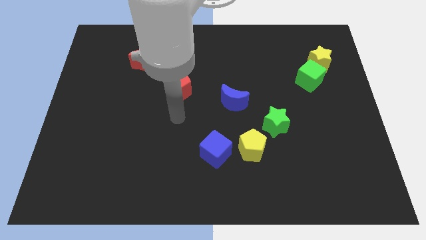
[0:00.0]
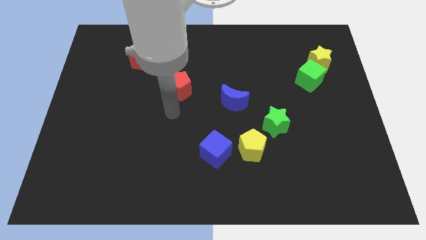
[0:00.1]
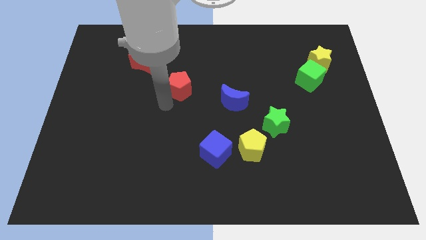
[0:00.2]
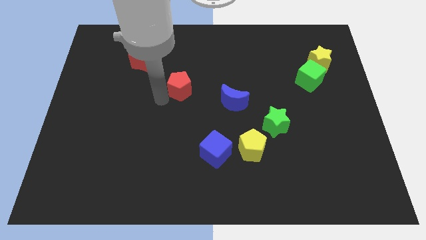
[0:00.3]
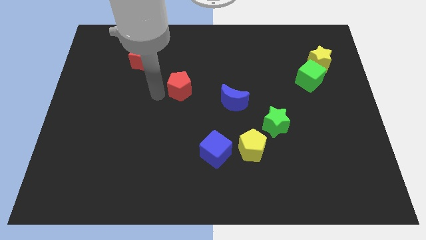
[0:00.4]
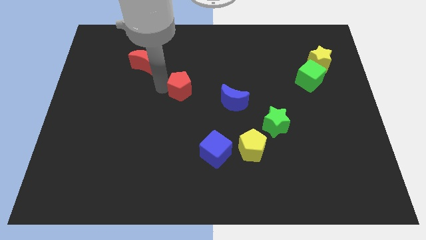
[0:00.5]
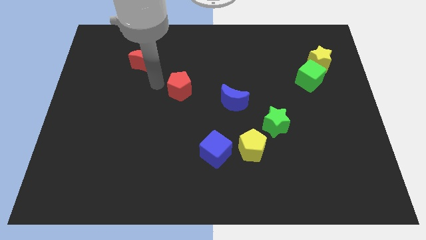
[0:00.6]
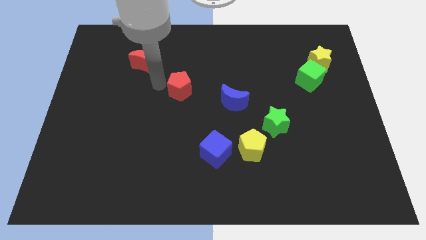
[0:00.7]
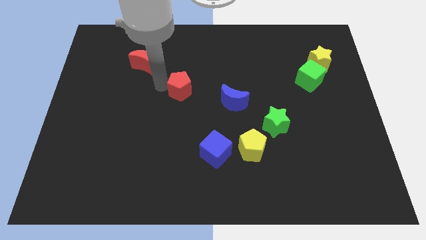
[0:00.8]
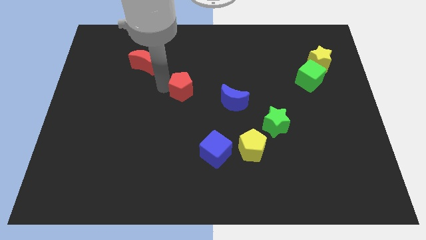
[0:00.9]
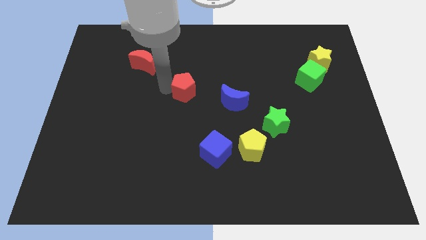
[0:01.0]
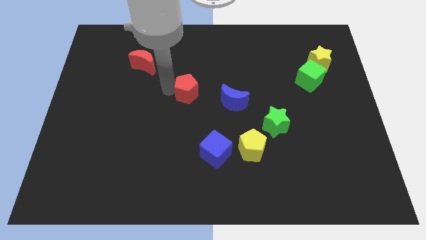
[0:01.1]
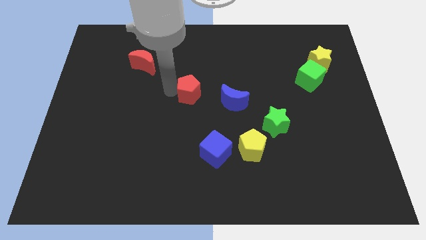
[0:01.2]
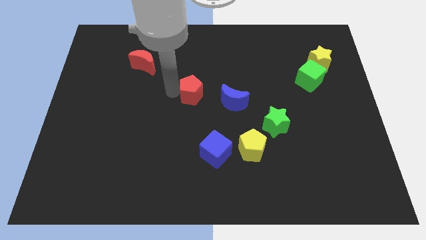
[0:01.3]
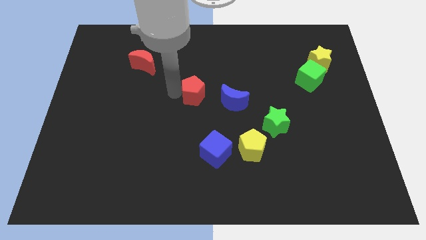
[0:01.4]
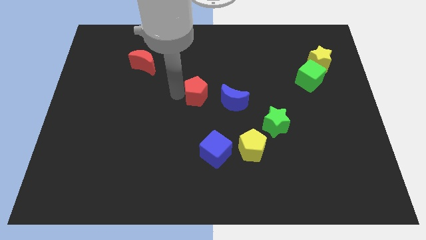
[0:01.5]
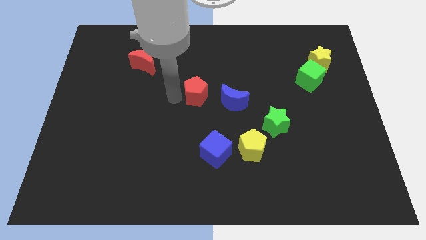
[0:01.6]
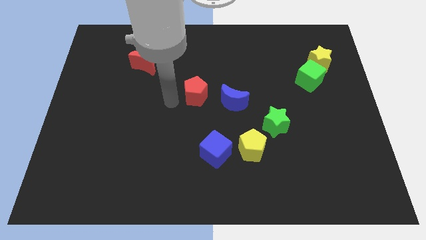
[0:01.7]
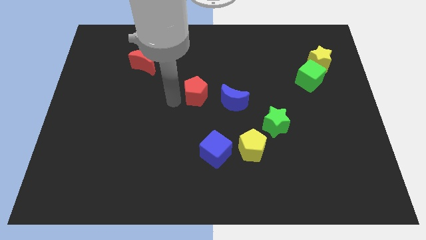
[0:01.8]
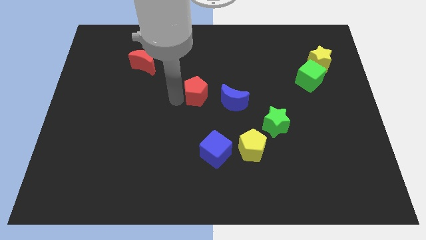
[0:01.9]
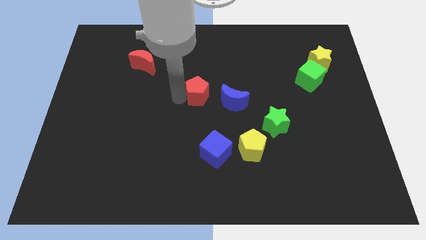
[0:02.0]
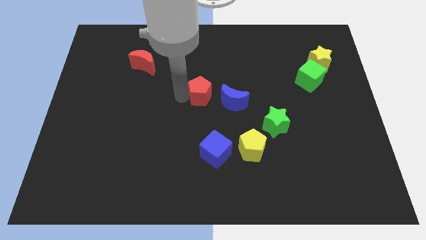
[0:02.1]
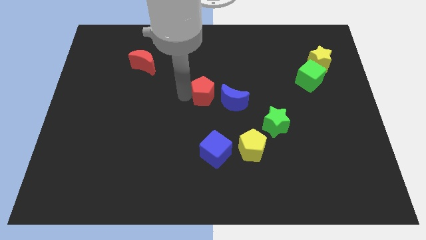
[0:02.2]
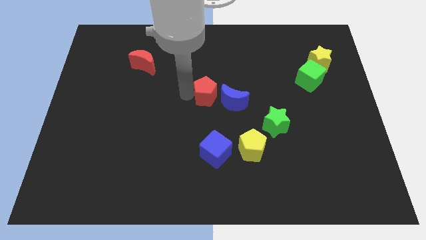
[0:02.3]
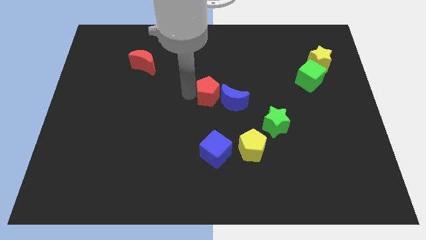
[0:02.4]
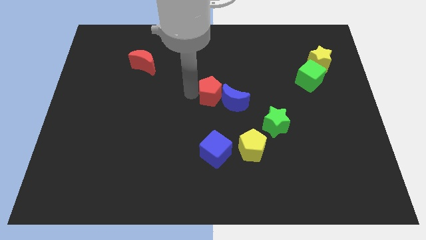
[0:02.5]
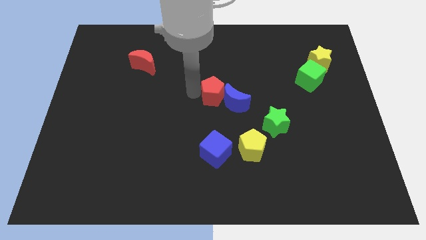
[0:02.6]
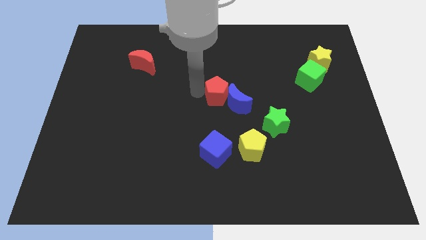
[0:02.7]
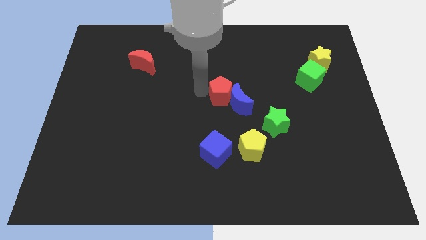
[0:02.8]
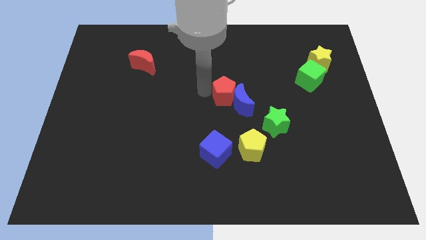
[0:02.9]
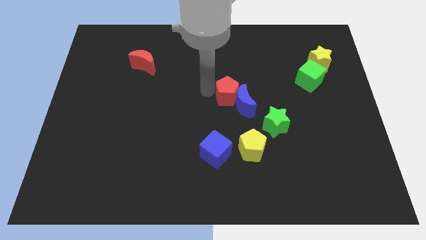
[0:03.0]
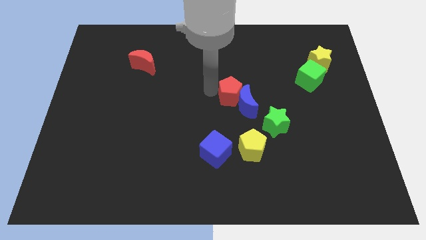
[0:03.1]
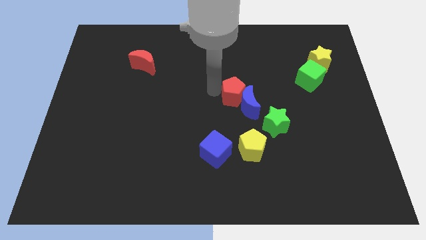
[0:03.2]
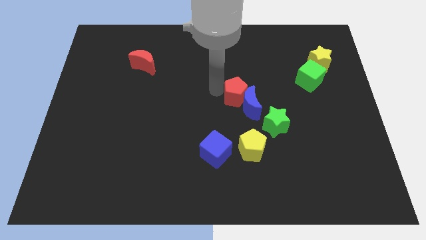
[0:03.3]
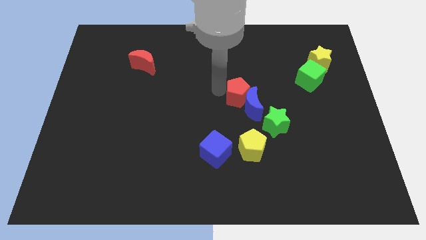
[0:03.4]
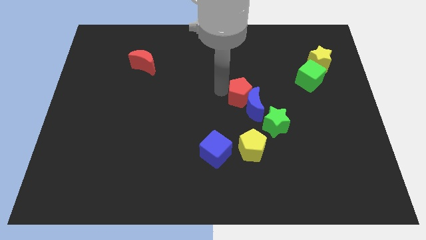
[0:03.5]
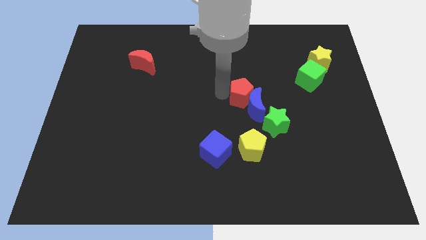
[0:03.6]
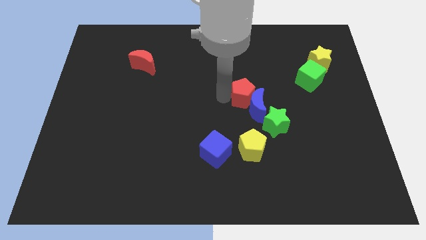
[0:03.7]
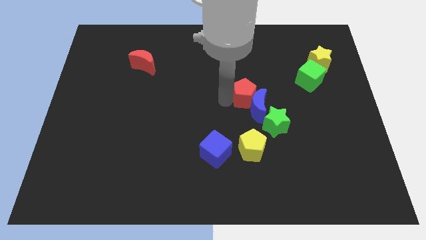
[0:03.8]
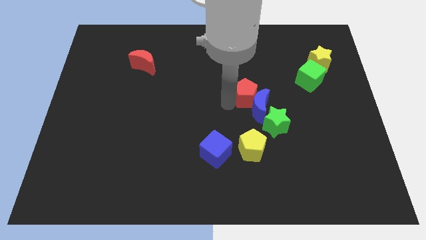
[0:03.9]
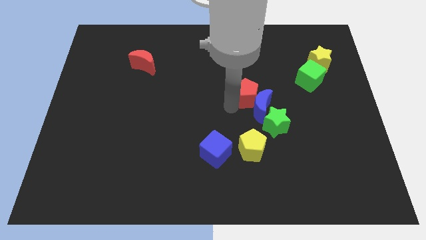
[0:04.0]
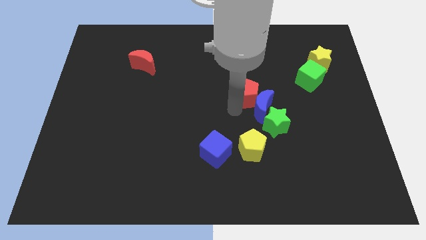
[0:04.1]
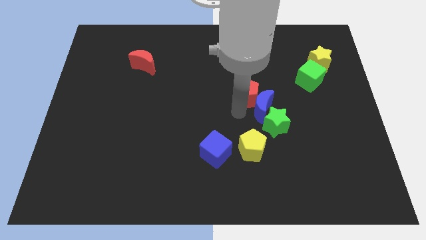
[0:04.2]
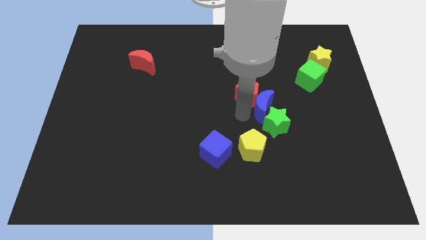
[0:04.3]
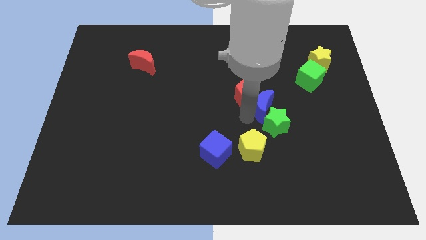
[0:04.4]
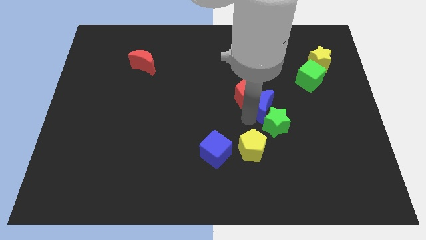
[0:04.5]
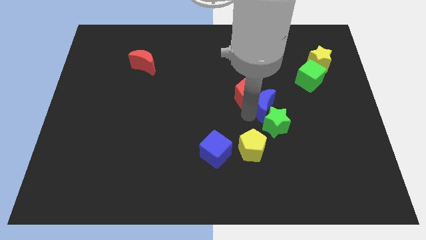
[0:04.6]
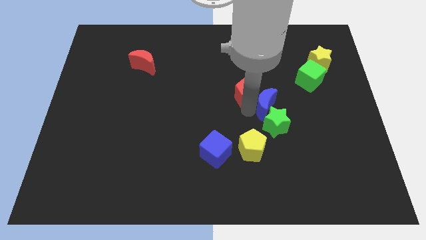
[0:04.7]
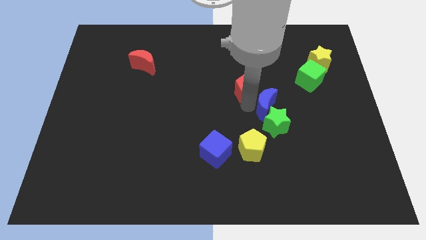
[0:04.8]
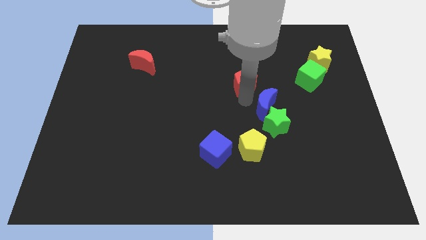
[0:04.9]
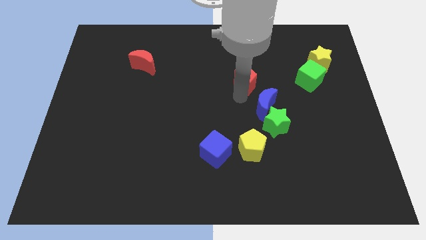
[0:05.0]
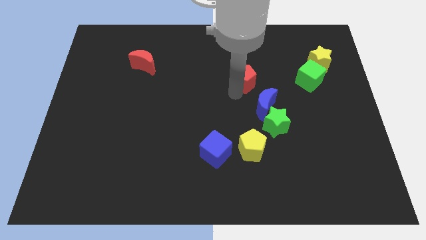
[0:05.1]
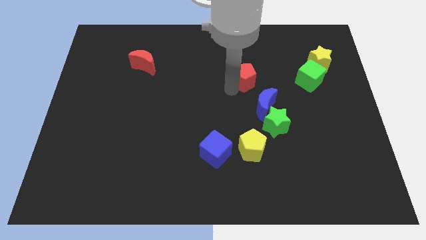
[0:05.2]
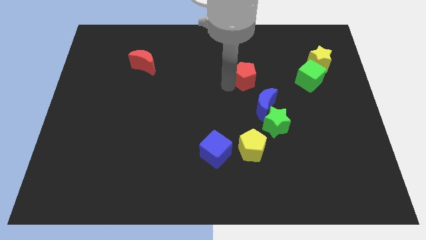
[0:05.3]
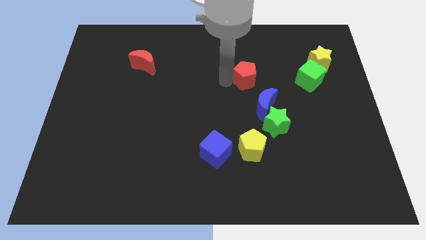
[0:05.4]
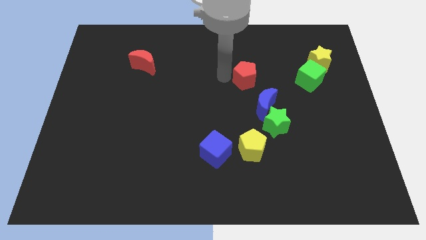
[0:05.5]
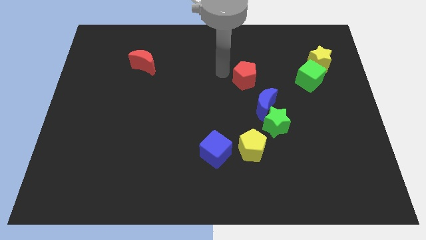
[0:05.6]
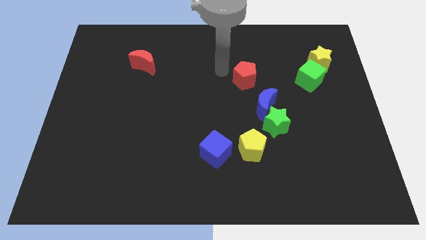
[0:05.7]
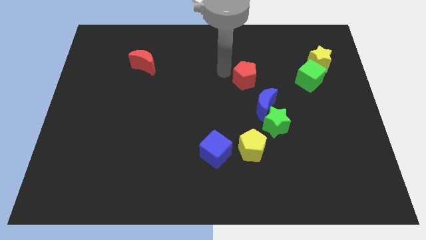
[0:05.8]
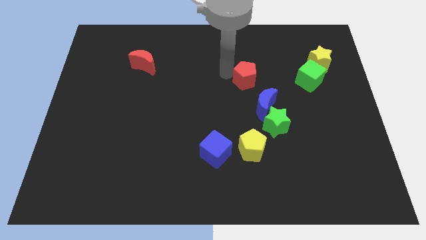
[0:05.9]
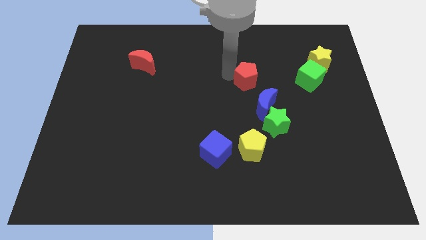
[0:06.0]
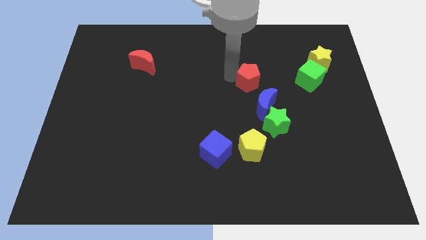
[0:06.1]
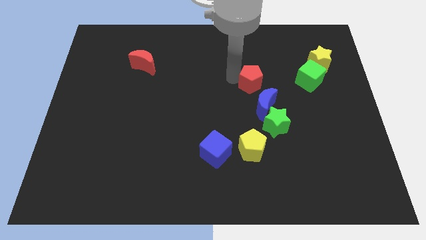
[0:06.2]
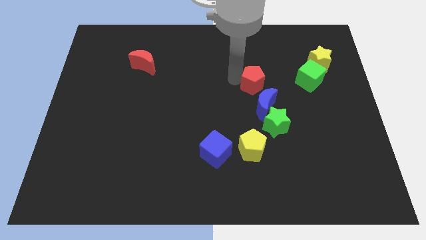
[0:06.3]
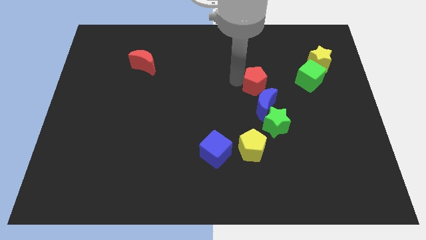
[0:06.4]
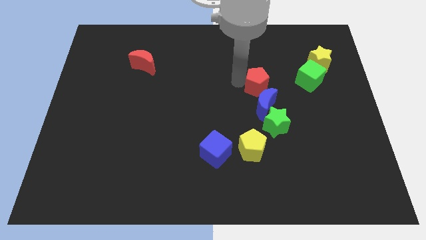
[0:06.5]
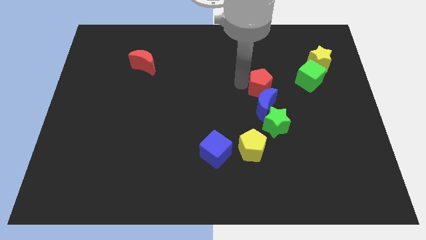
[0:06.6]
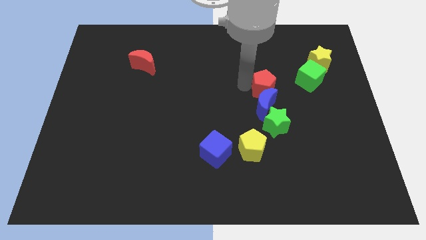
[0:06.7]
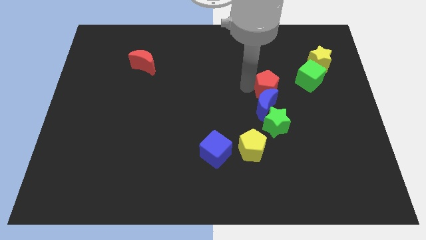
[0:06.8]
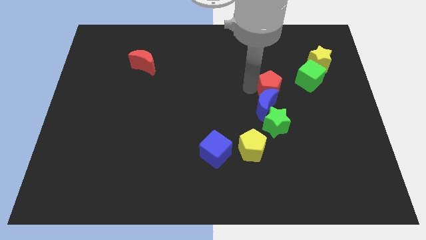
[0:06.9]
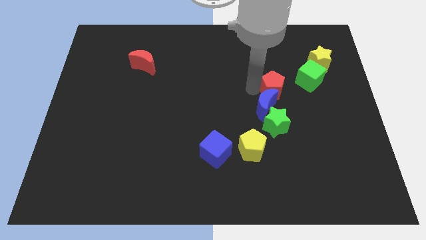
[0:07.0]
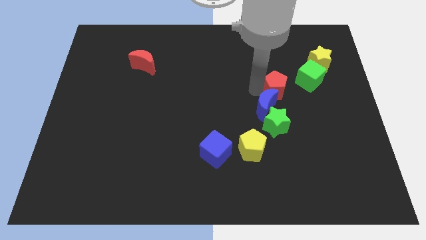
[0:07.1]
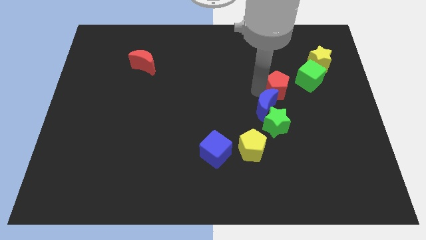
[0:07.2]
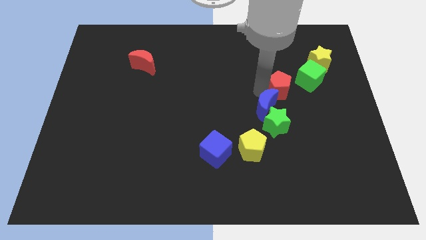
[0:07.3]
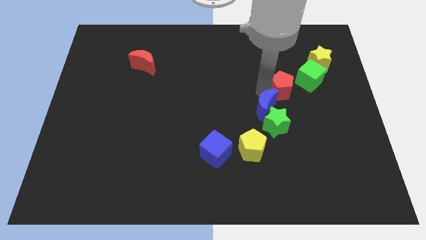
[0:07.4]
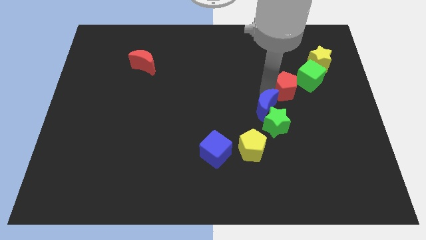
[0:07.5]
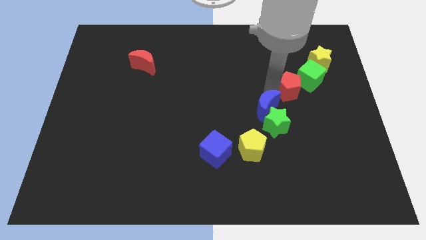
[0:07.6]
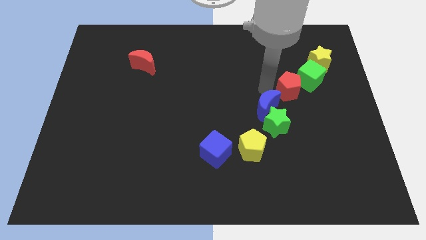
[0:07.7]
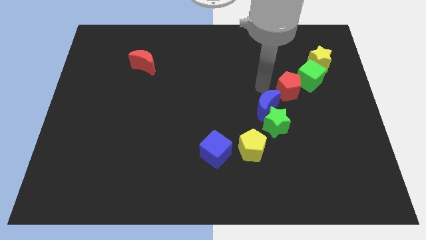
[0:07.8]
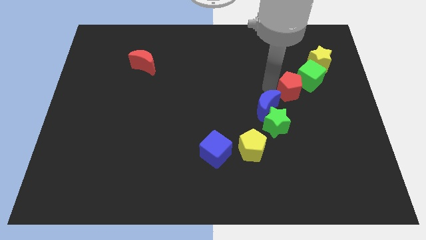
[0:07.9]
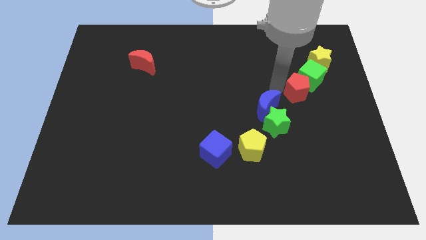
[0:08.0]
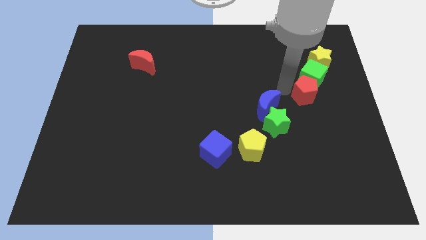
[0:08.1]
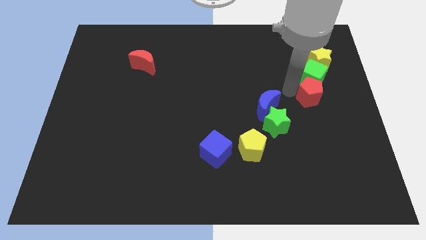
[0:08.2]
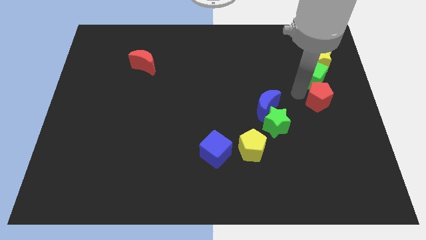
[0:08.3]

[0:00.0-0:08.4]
put the red pentagon to the right side of the board
